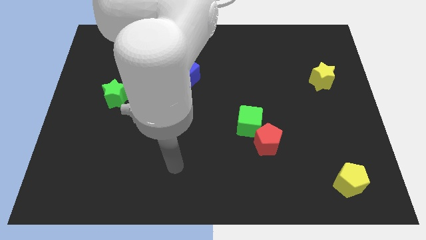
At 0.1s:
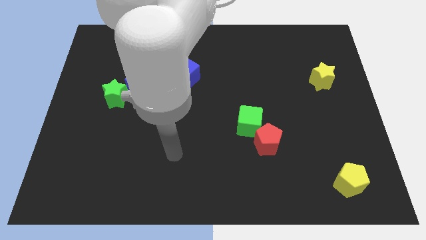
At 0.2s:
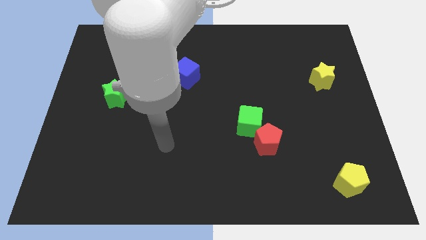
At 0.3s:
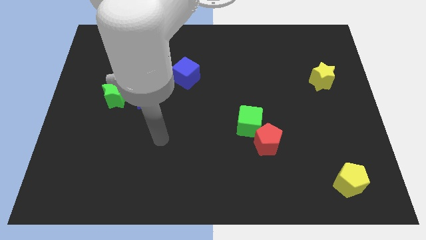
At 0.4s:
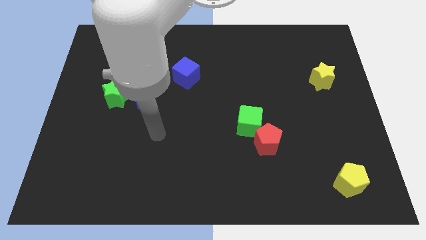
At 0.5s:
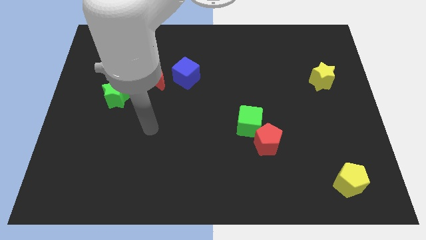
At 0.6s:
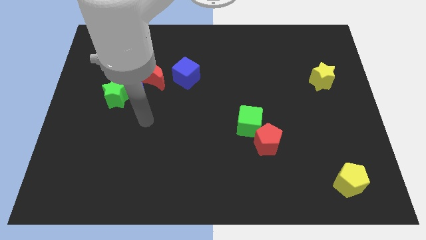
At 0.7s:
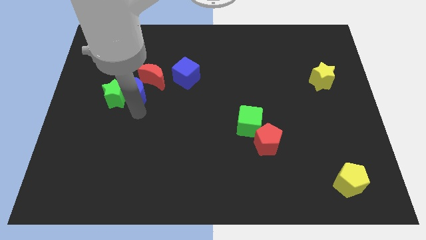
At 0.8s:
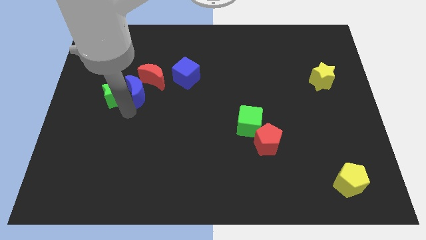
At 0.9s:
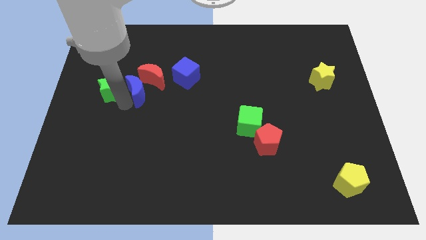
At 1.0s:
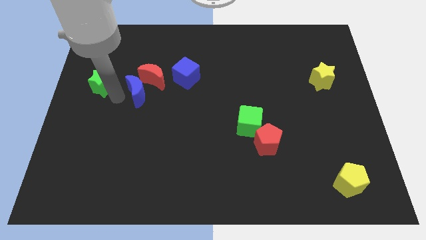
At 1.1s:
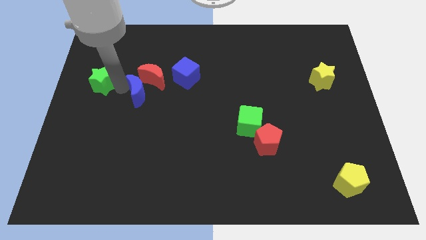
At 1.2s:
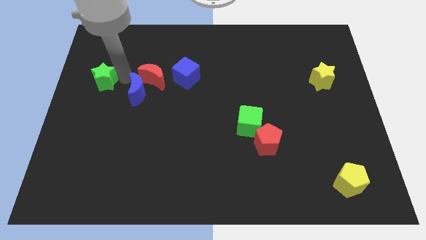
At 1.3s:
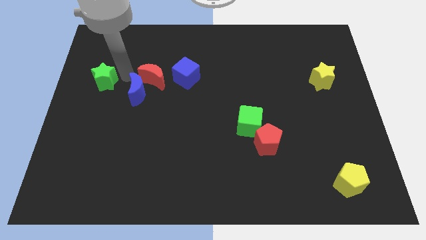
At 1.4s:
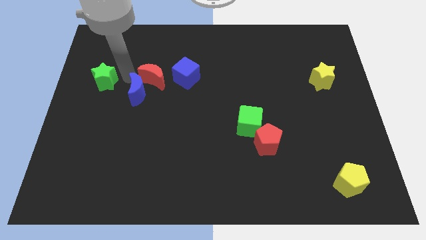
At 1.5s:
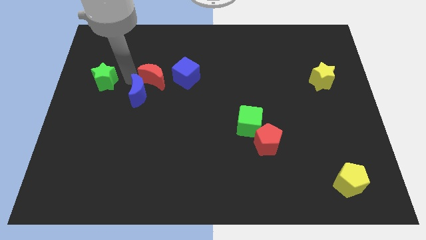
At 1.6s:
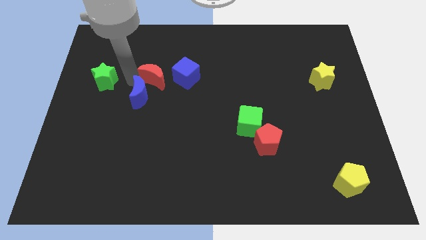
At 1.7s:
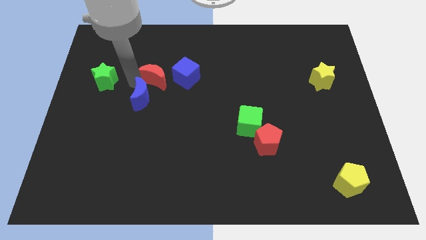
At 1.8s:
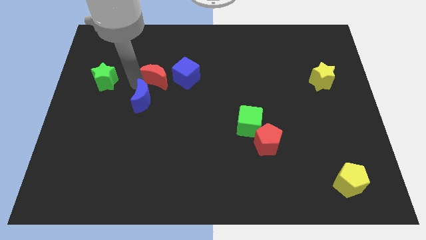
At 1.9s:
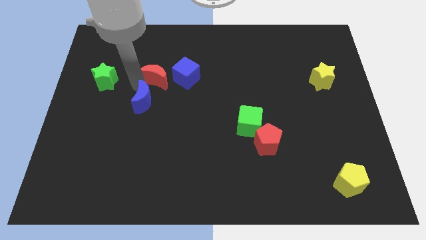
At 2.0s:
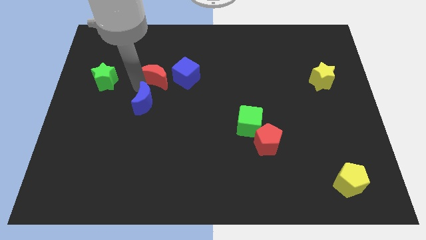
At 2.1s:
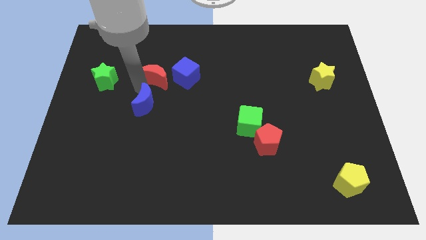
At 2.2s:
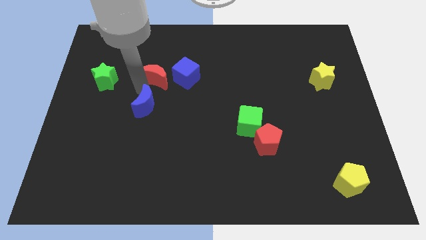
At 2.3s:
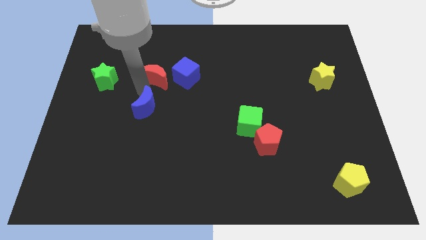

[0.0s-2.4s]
move the blue moon away from the green star and red moon

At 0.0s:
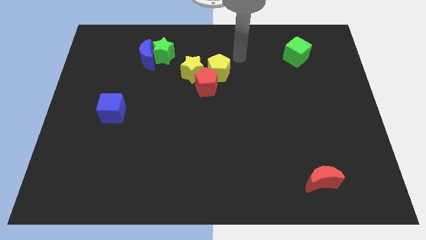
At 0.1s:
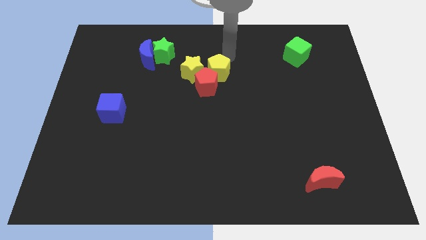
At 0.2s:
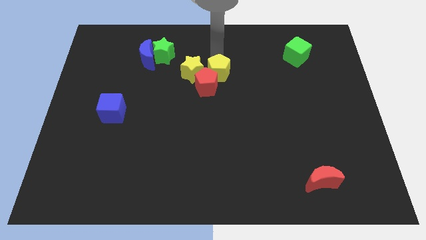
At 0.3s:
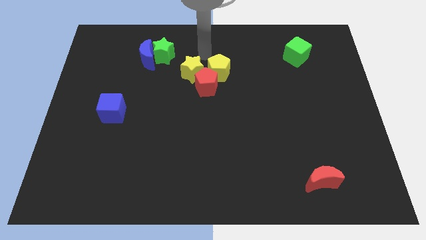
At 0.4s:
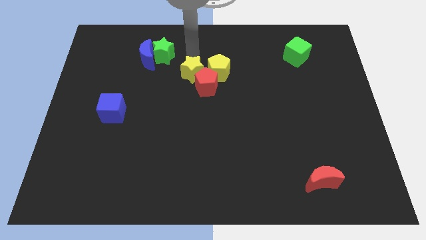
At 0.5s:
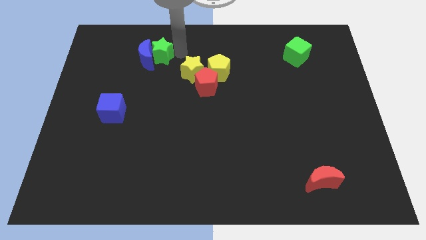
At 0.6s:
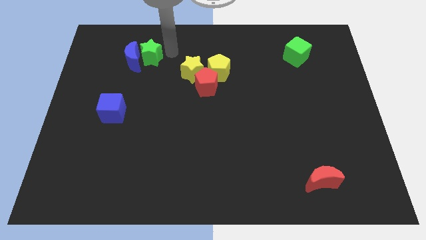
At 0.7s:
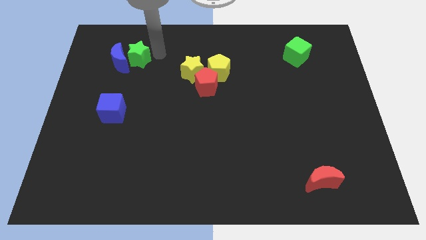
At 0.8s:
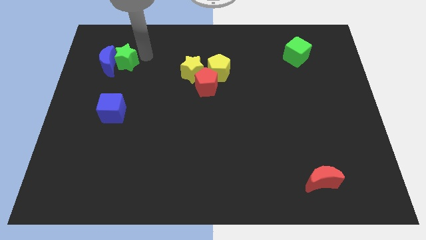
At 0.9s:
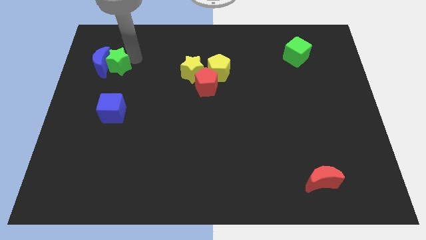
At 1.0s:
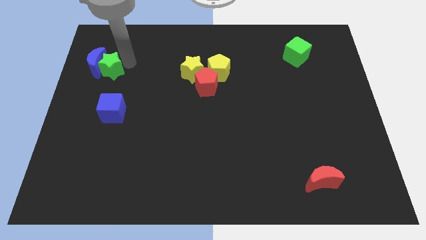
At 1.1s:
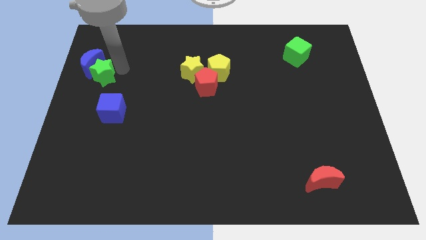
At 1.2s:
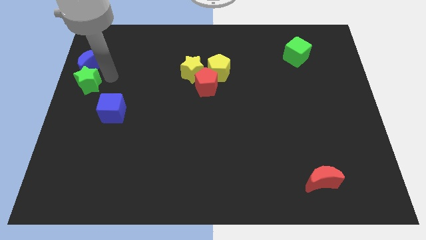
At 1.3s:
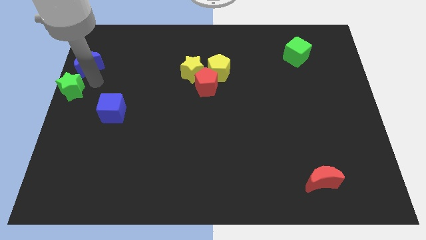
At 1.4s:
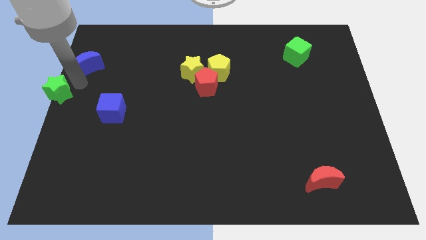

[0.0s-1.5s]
move the blue moon away from the green star

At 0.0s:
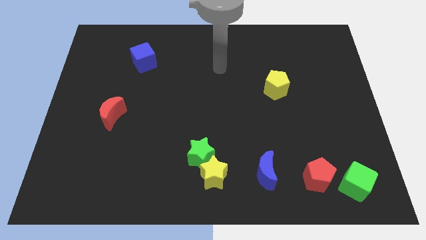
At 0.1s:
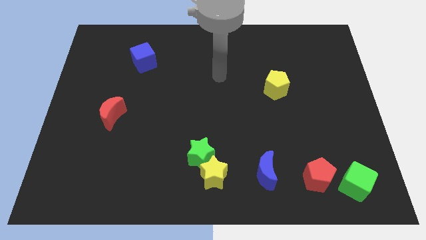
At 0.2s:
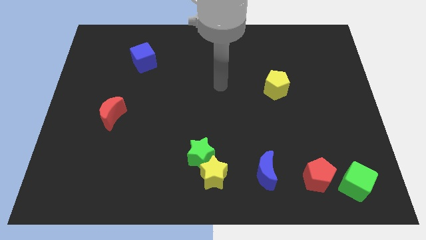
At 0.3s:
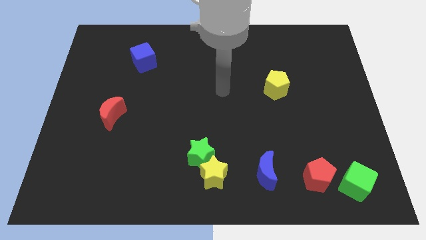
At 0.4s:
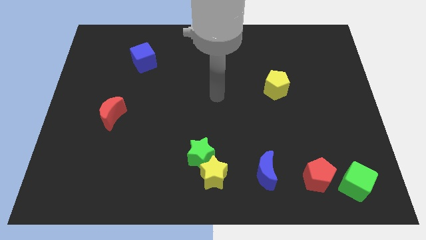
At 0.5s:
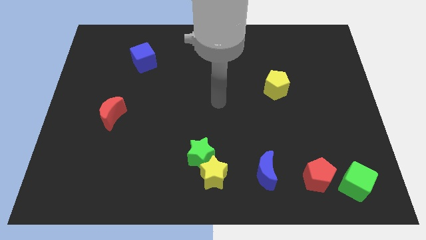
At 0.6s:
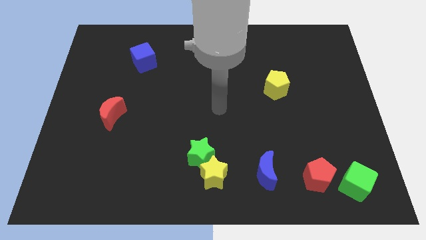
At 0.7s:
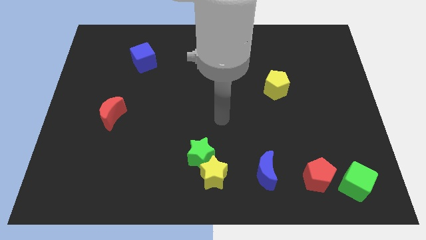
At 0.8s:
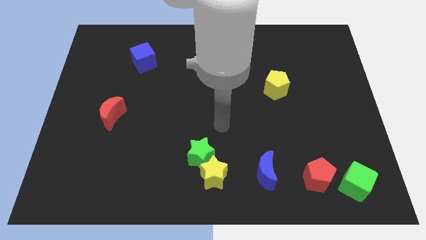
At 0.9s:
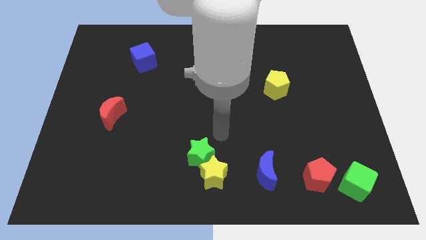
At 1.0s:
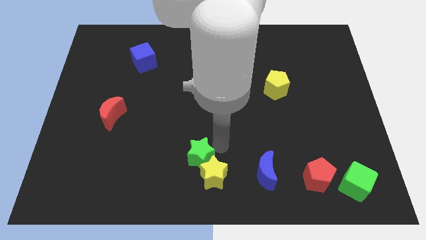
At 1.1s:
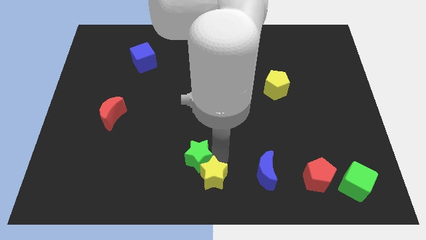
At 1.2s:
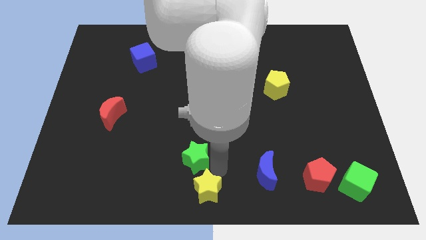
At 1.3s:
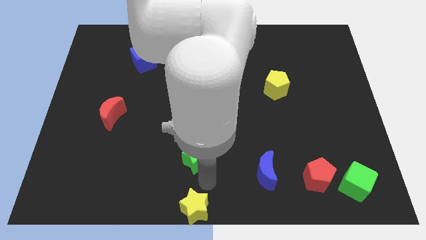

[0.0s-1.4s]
separate the green star from the yellow star

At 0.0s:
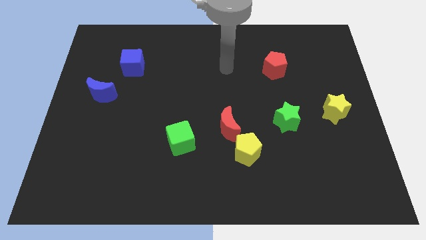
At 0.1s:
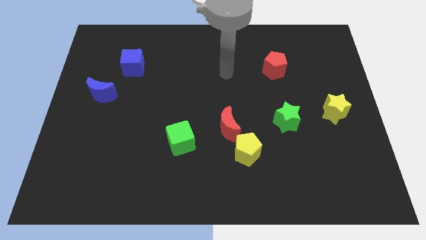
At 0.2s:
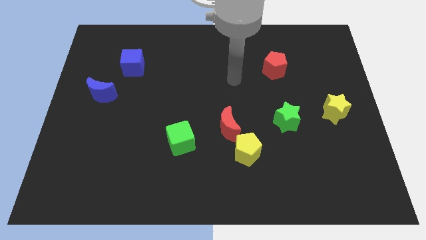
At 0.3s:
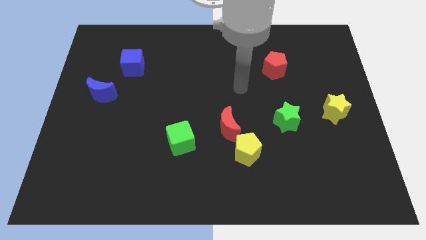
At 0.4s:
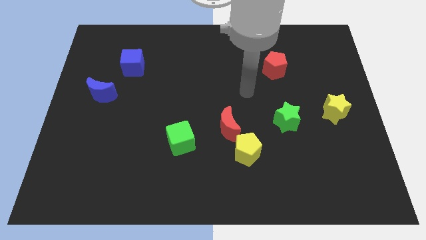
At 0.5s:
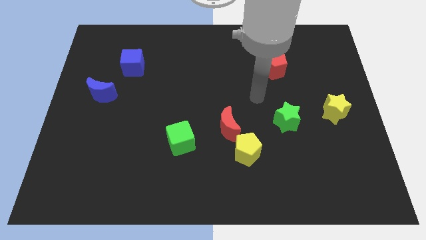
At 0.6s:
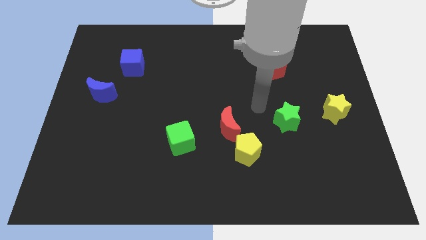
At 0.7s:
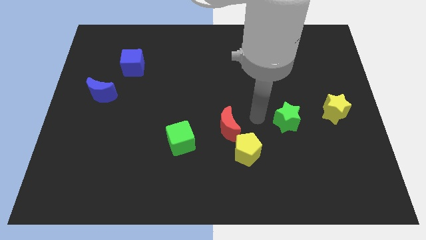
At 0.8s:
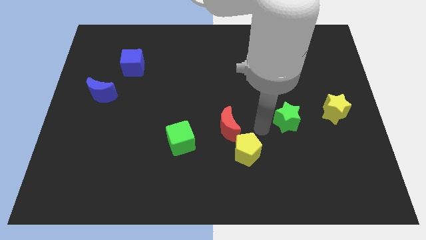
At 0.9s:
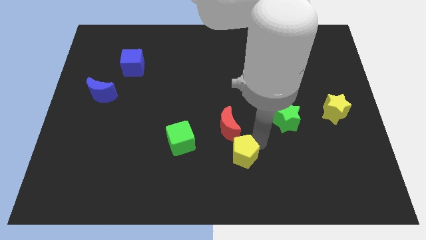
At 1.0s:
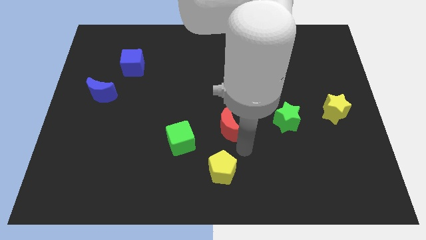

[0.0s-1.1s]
separate the red moon from the yellow pentagon

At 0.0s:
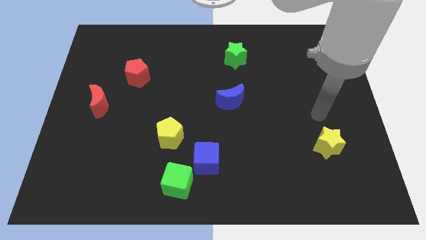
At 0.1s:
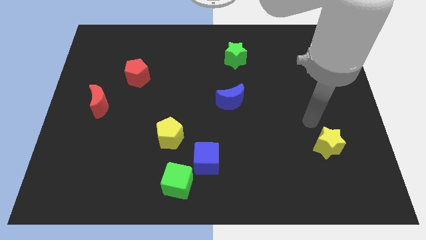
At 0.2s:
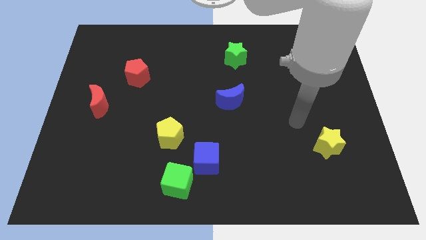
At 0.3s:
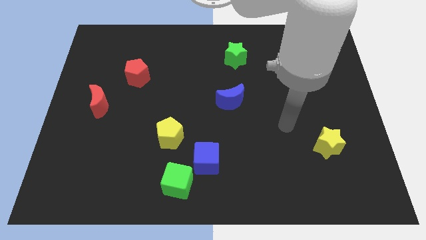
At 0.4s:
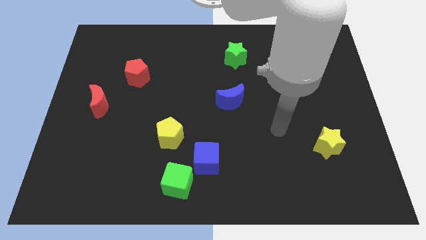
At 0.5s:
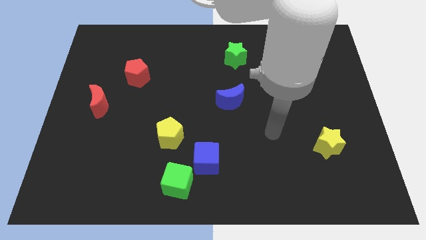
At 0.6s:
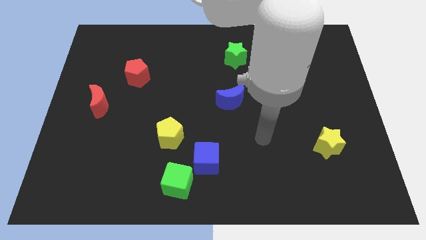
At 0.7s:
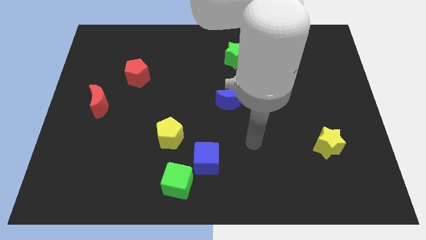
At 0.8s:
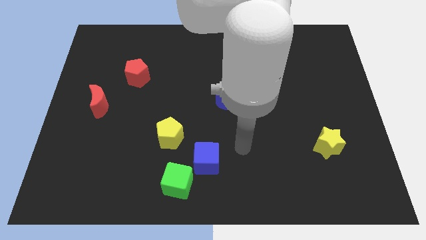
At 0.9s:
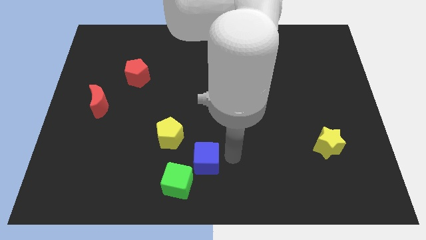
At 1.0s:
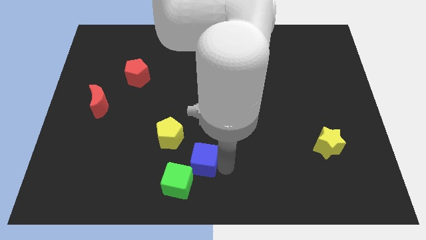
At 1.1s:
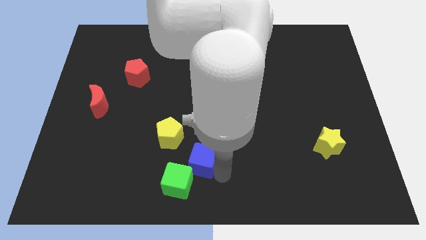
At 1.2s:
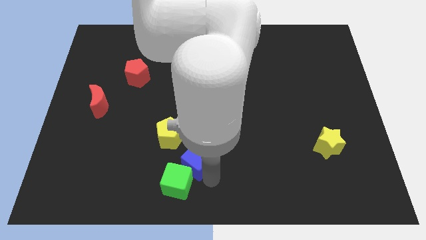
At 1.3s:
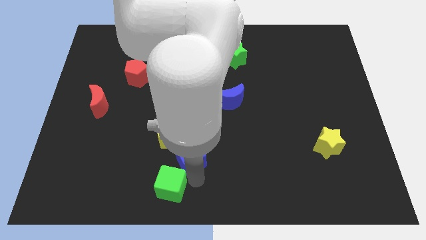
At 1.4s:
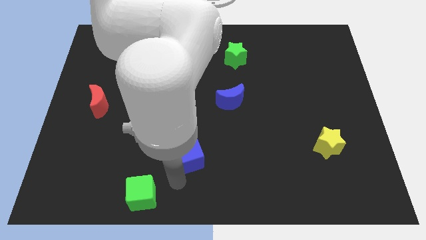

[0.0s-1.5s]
move the blue cube away from the green cube

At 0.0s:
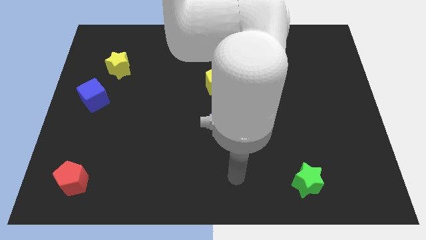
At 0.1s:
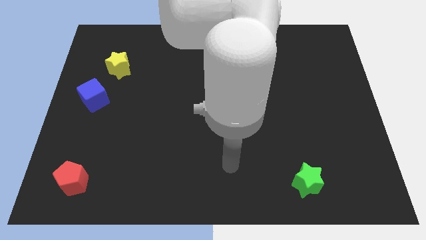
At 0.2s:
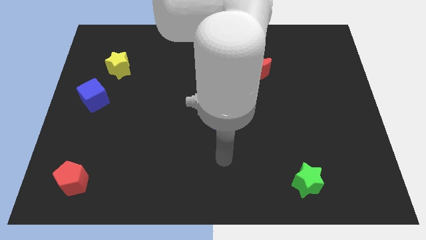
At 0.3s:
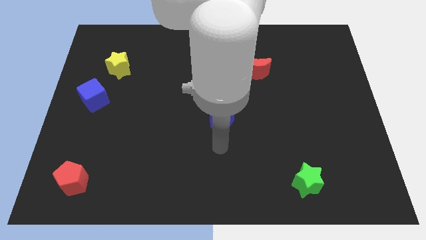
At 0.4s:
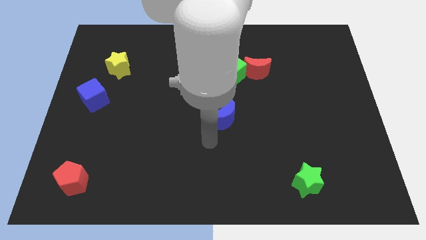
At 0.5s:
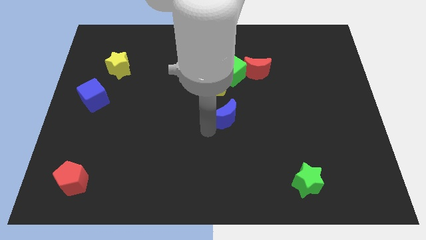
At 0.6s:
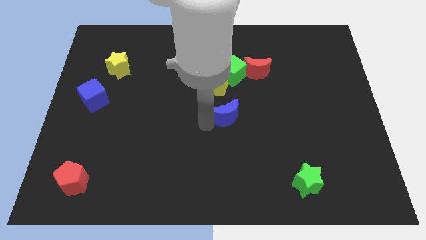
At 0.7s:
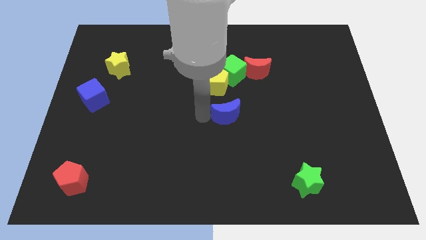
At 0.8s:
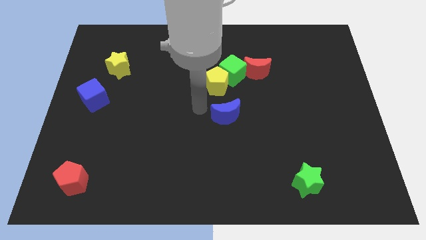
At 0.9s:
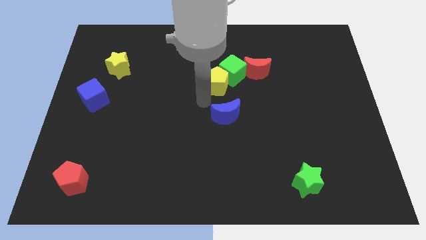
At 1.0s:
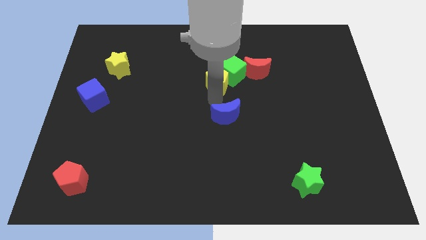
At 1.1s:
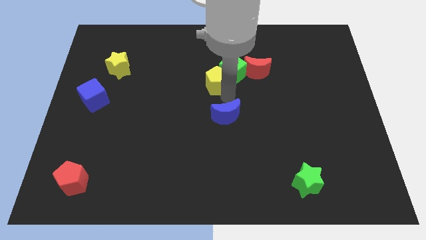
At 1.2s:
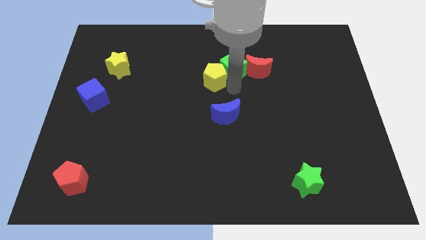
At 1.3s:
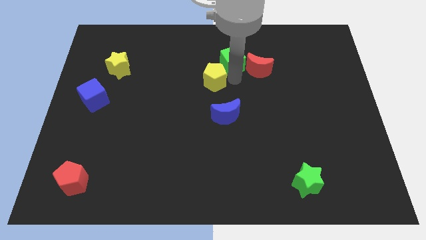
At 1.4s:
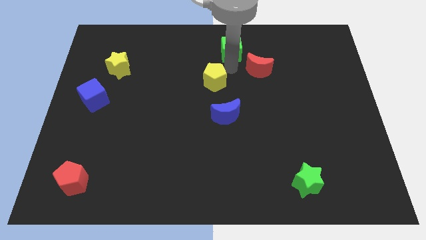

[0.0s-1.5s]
pull the yellow pentagon apart from the green cube
